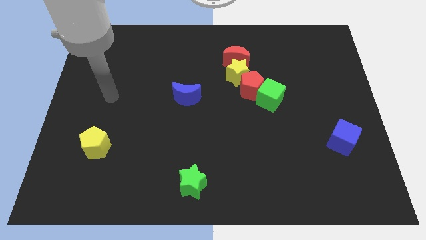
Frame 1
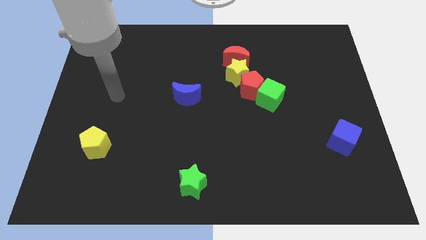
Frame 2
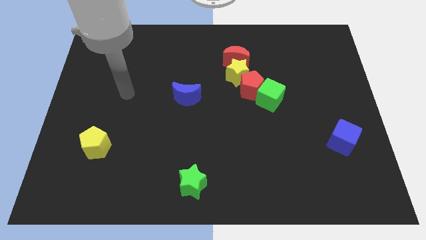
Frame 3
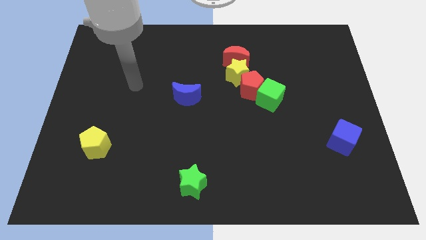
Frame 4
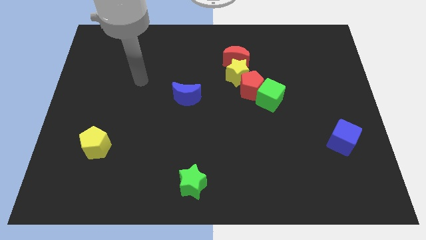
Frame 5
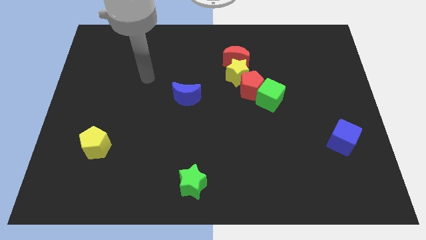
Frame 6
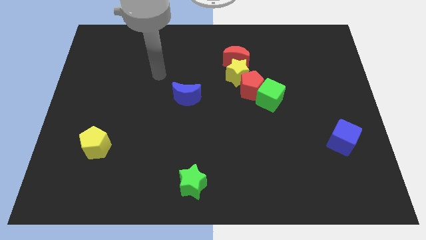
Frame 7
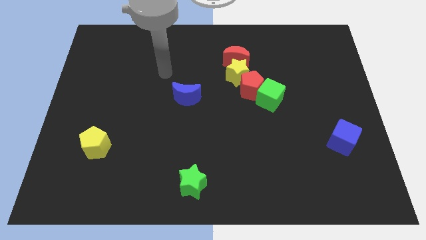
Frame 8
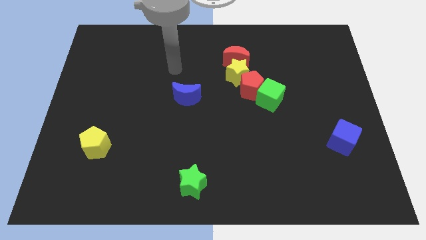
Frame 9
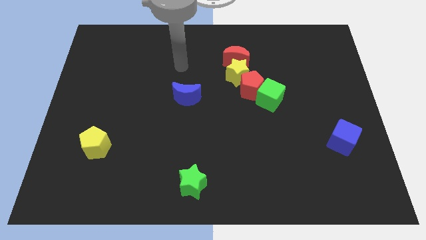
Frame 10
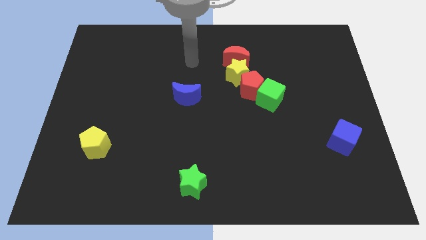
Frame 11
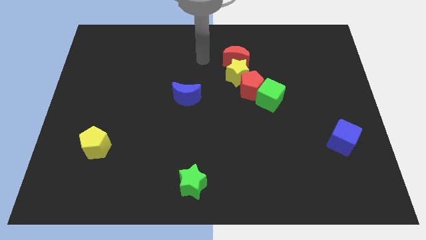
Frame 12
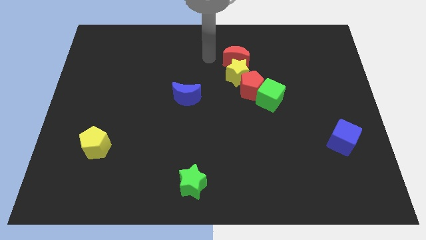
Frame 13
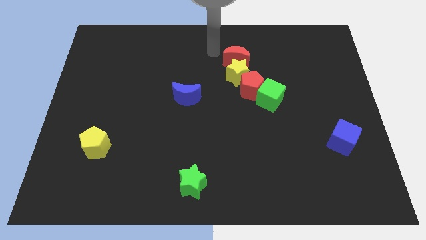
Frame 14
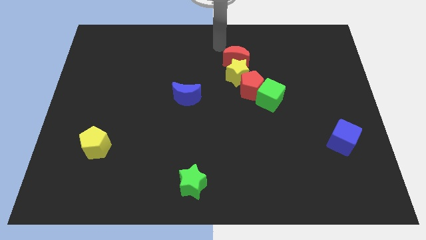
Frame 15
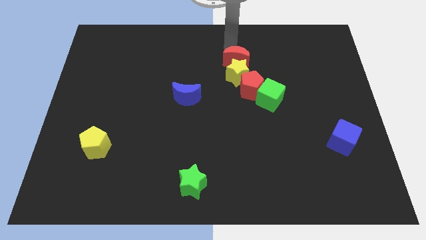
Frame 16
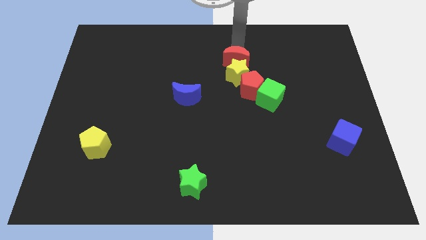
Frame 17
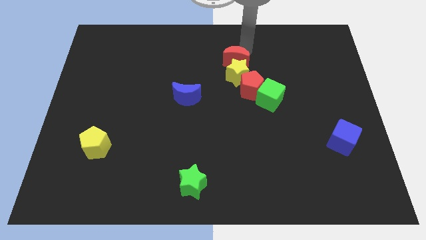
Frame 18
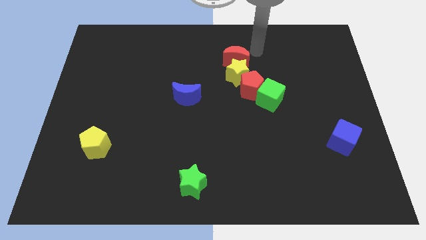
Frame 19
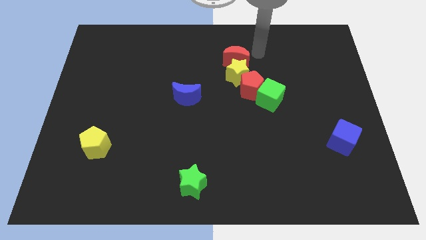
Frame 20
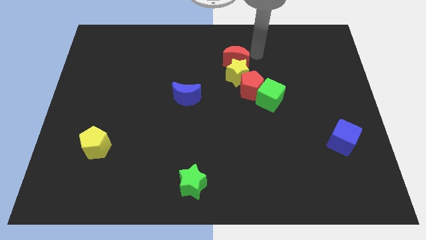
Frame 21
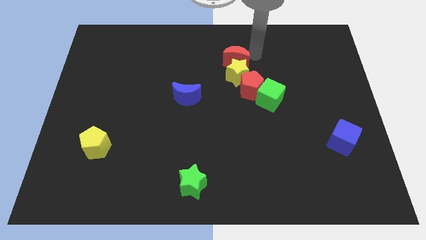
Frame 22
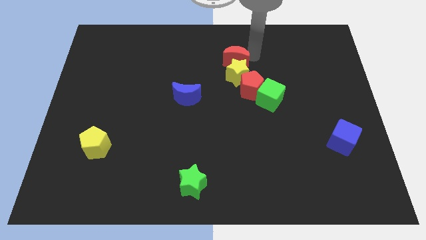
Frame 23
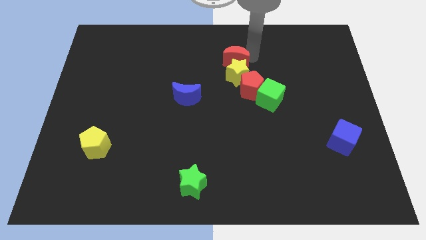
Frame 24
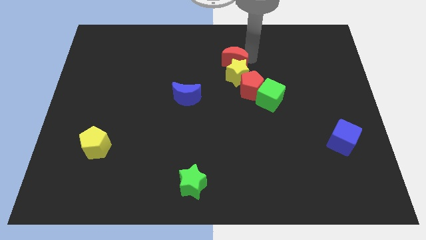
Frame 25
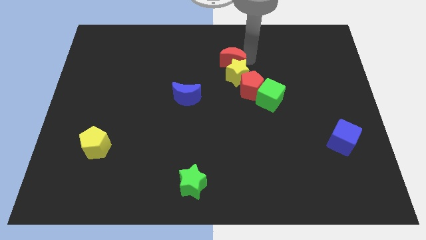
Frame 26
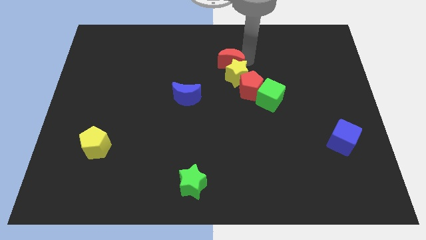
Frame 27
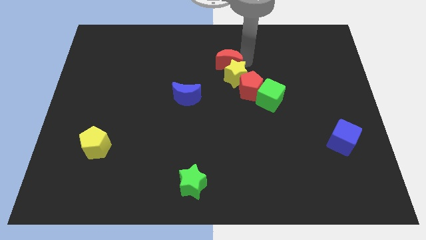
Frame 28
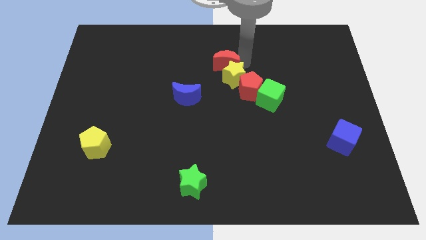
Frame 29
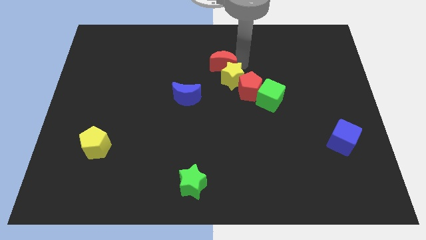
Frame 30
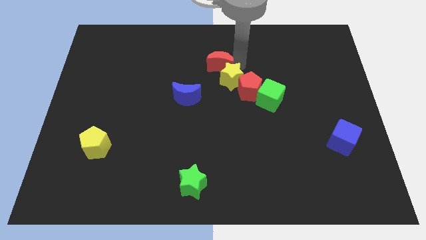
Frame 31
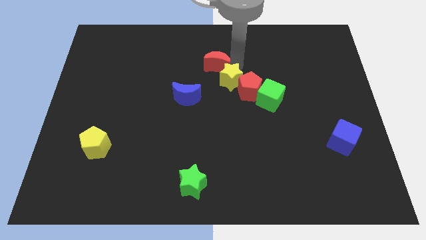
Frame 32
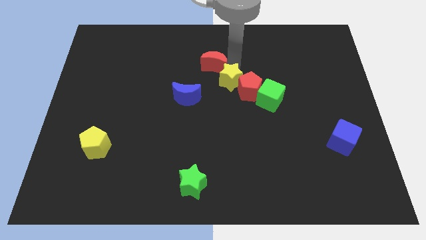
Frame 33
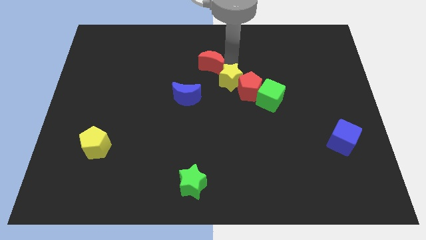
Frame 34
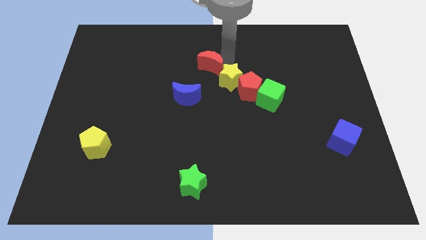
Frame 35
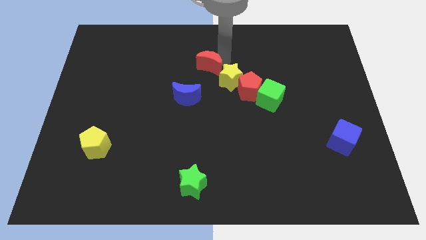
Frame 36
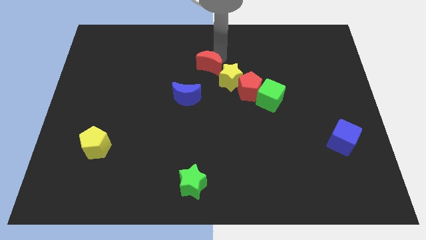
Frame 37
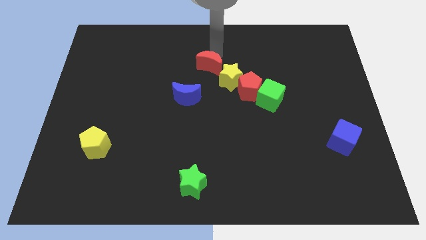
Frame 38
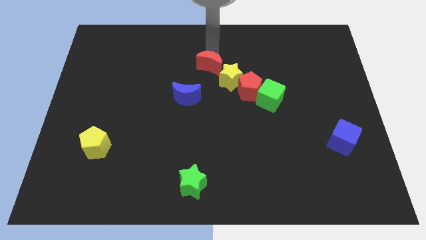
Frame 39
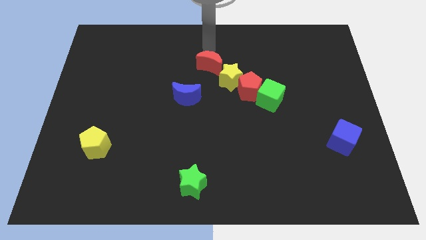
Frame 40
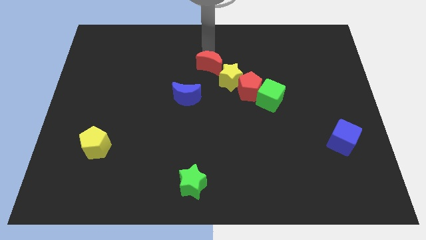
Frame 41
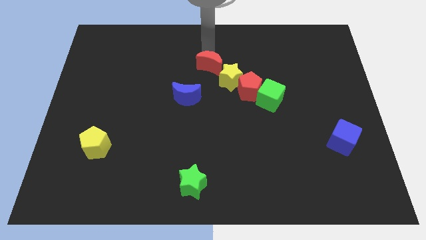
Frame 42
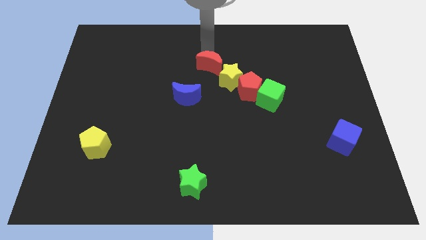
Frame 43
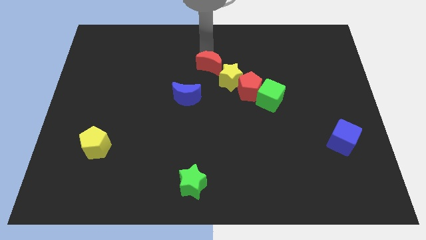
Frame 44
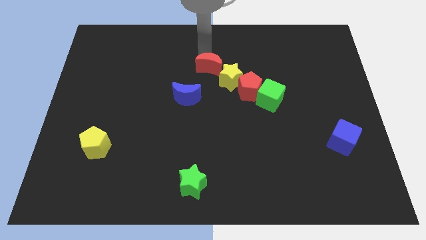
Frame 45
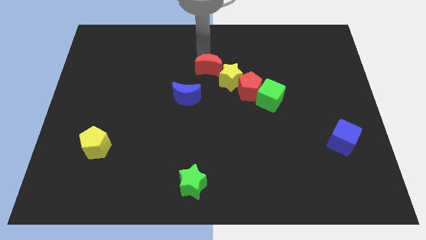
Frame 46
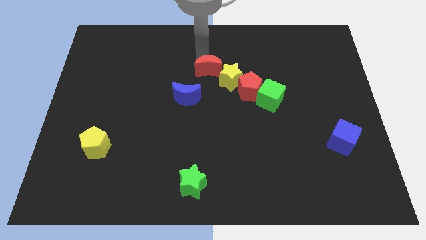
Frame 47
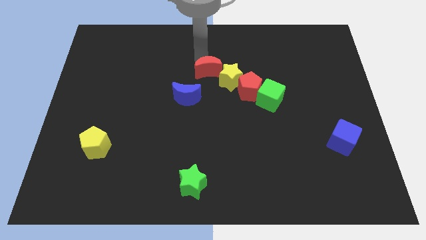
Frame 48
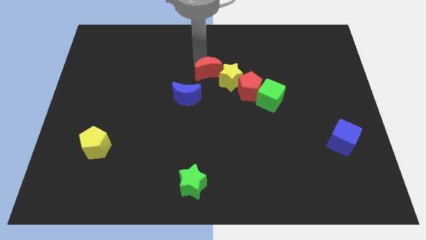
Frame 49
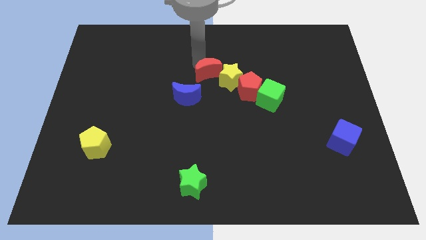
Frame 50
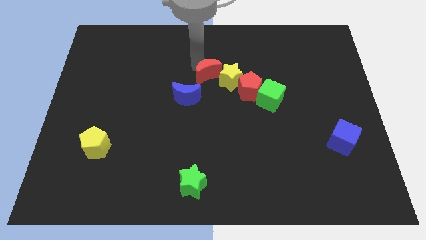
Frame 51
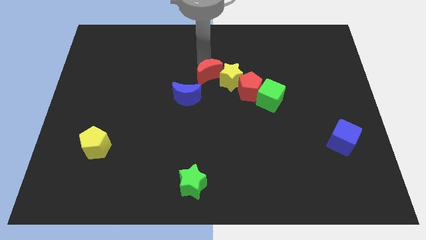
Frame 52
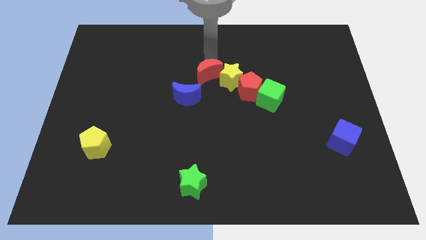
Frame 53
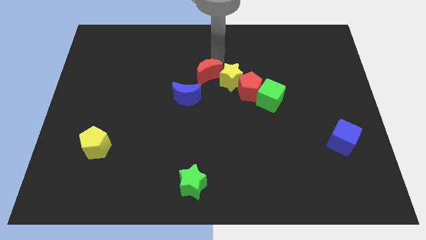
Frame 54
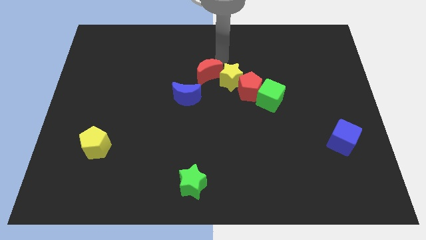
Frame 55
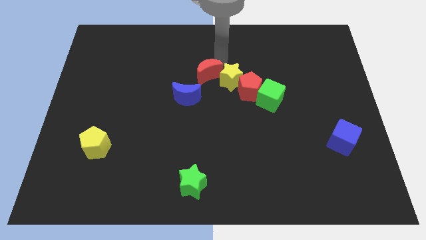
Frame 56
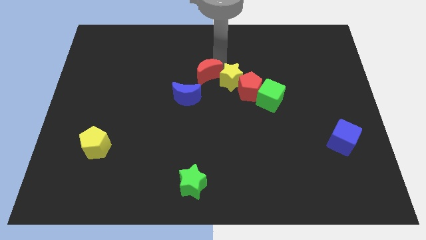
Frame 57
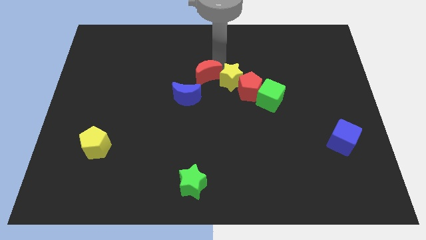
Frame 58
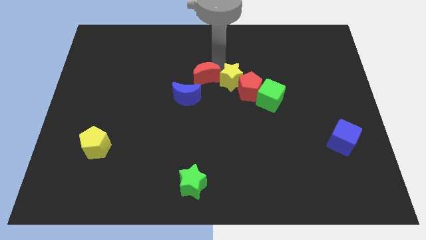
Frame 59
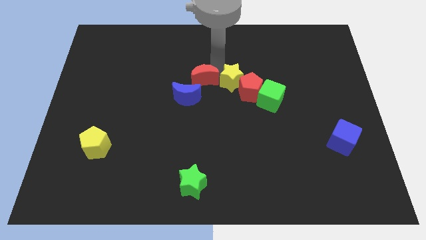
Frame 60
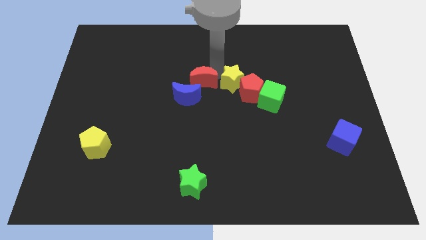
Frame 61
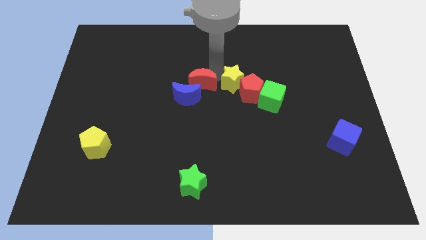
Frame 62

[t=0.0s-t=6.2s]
push the red moon close to the blue moon

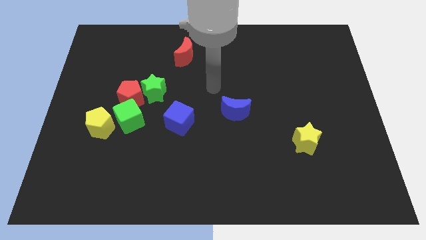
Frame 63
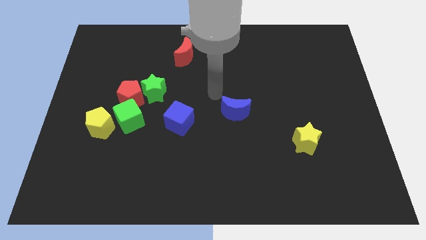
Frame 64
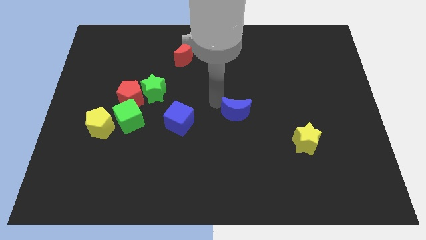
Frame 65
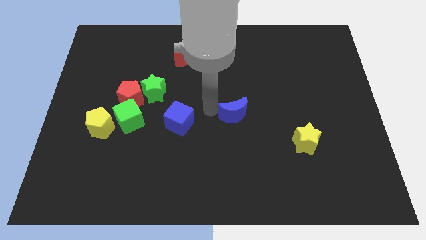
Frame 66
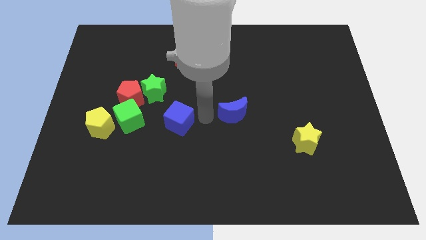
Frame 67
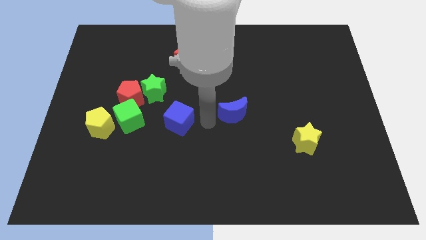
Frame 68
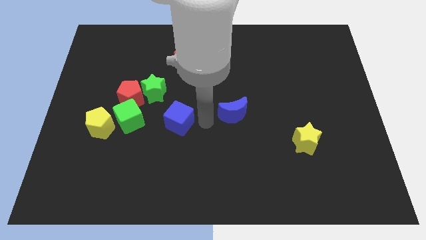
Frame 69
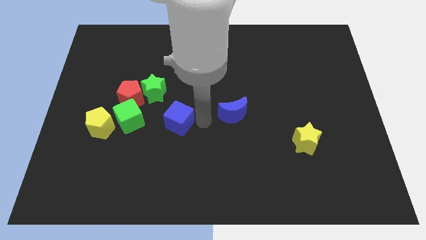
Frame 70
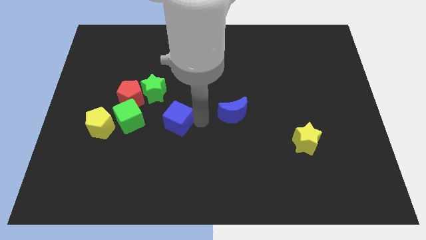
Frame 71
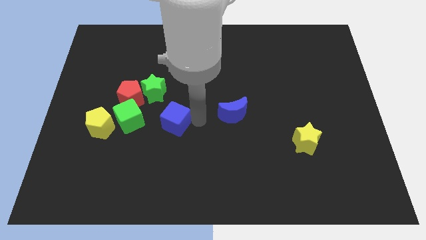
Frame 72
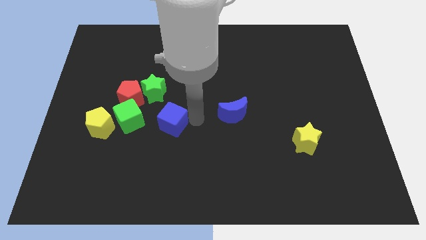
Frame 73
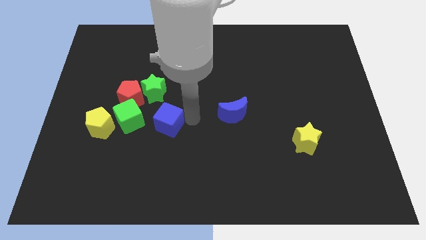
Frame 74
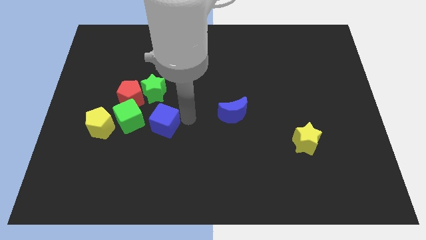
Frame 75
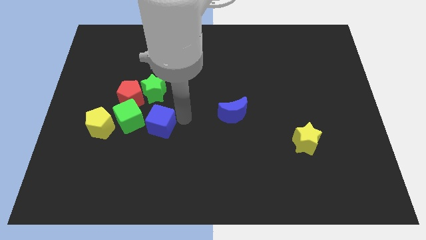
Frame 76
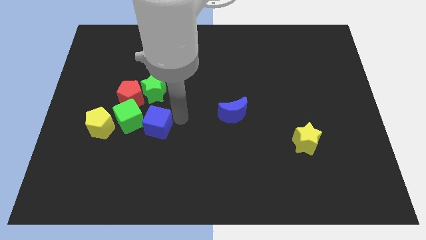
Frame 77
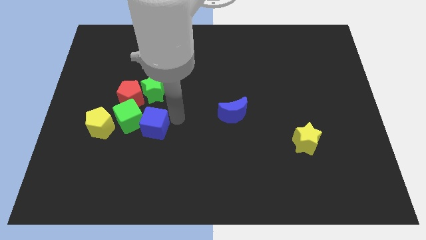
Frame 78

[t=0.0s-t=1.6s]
move the blue cube towards the green cube
